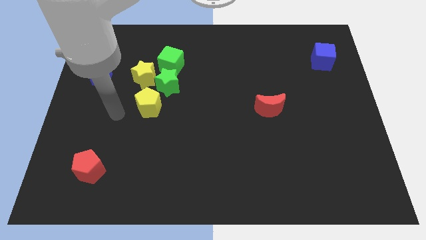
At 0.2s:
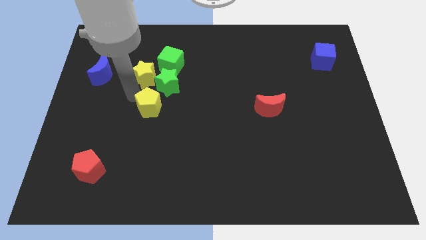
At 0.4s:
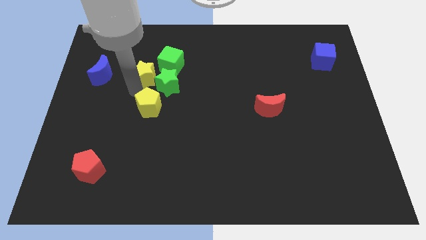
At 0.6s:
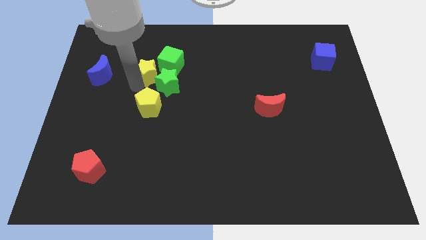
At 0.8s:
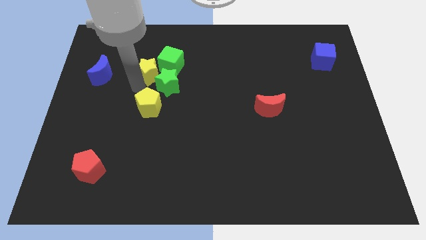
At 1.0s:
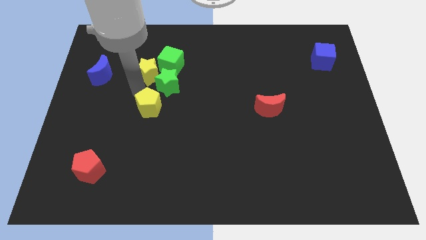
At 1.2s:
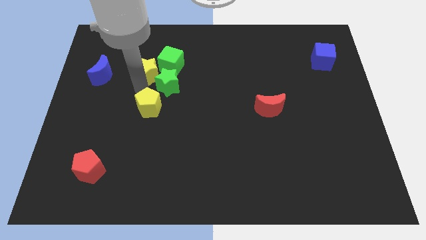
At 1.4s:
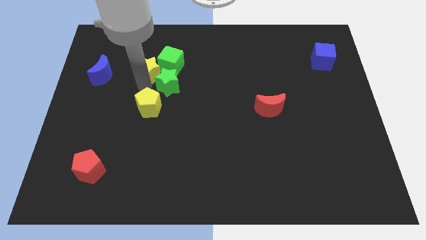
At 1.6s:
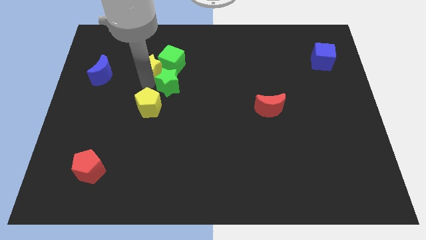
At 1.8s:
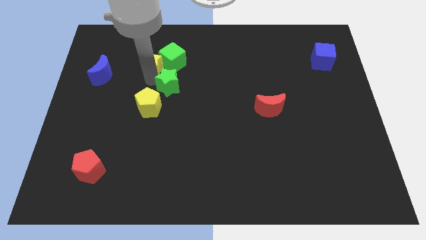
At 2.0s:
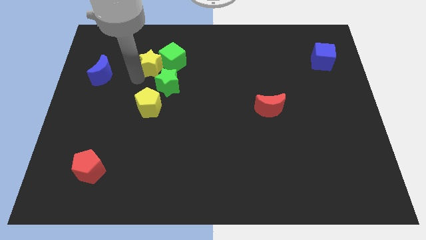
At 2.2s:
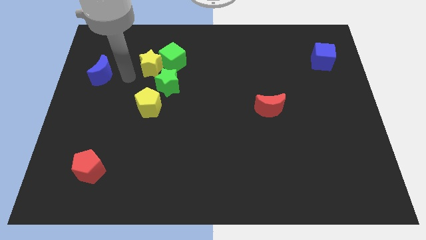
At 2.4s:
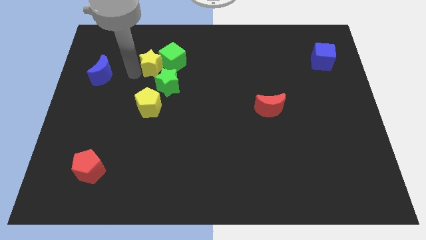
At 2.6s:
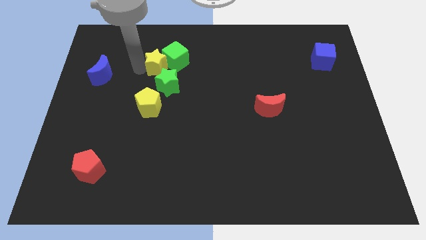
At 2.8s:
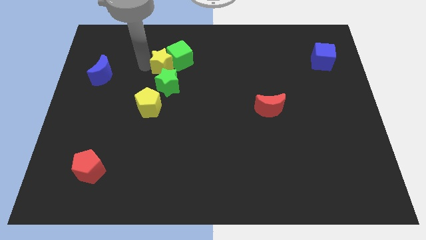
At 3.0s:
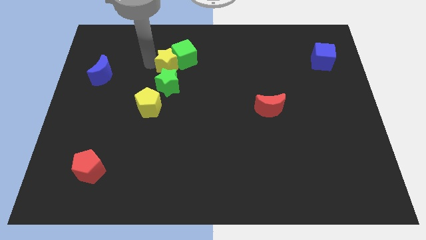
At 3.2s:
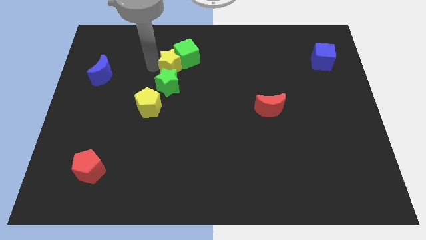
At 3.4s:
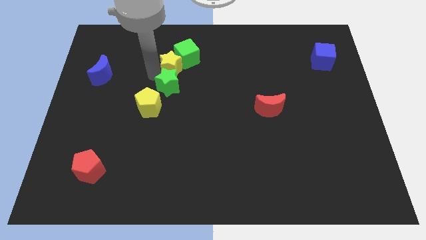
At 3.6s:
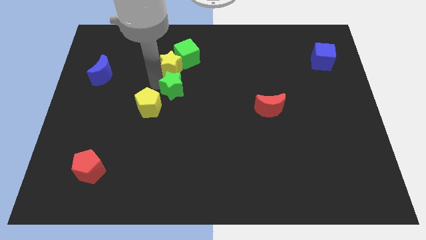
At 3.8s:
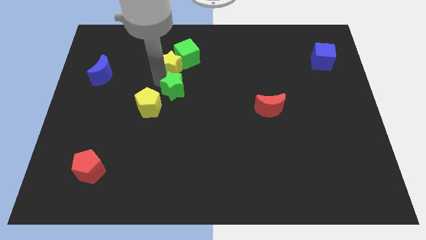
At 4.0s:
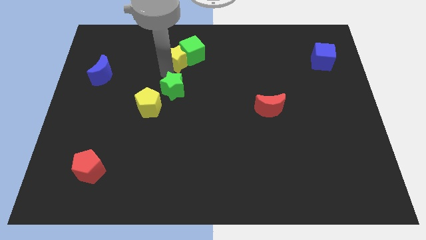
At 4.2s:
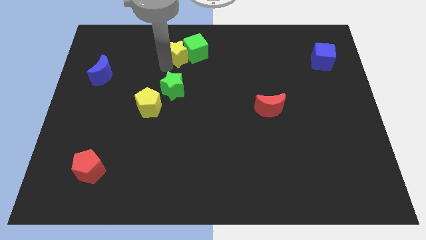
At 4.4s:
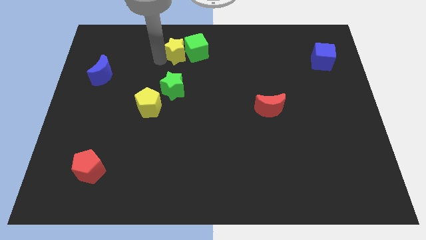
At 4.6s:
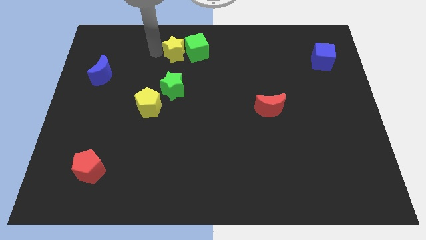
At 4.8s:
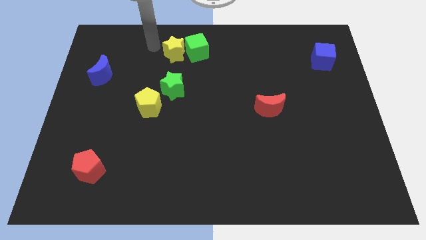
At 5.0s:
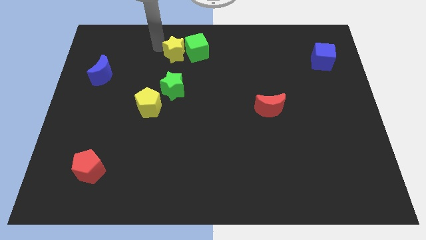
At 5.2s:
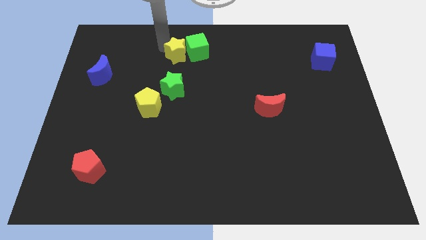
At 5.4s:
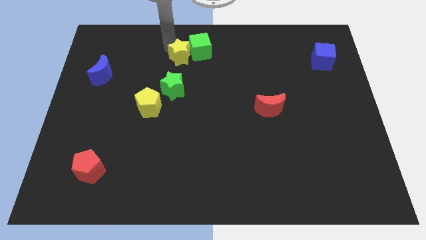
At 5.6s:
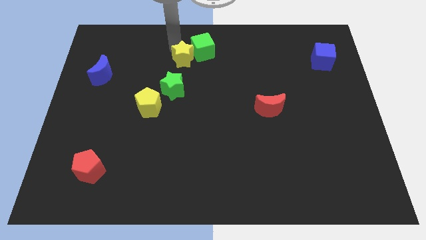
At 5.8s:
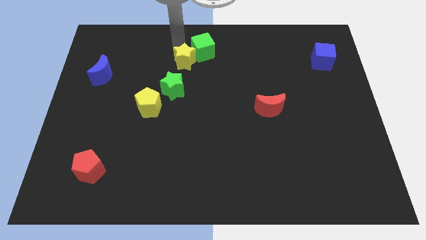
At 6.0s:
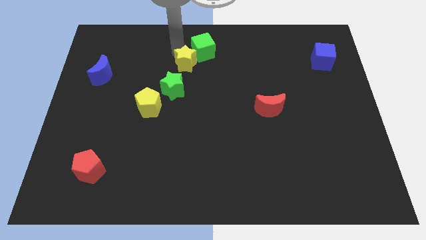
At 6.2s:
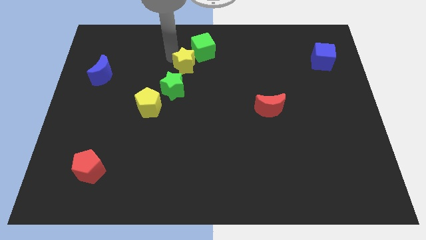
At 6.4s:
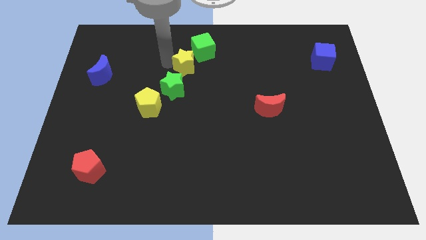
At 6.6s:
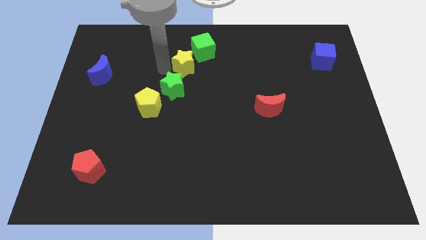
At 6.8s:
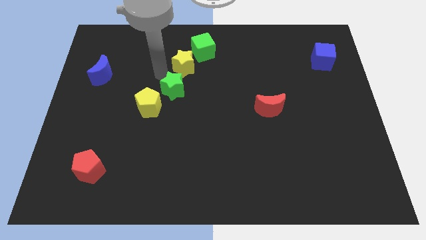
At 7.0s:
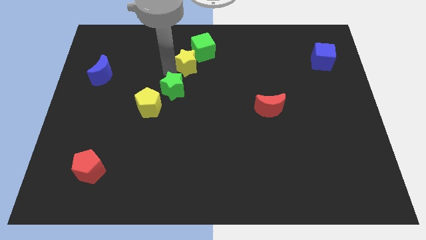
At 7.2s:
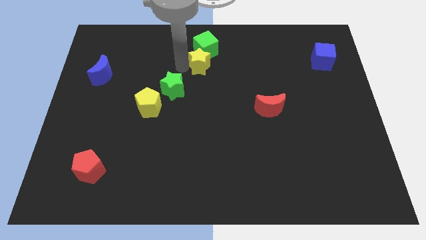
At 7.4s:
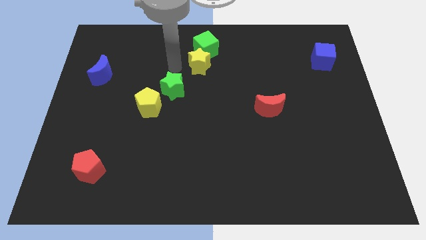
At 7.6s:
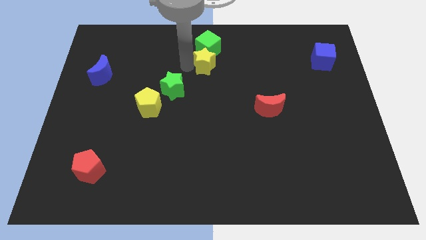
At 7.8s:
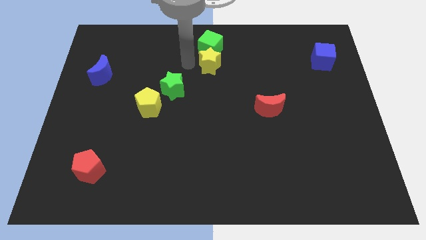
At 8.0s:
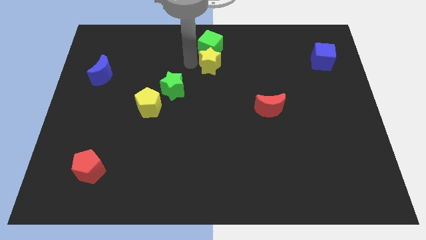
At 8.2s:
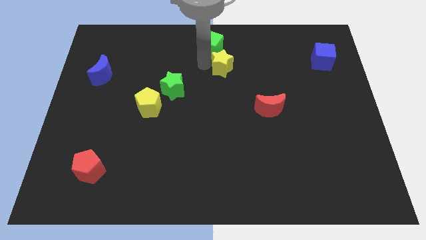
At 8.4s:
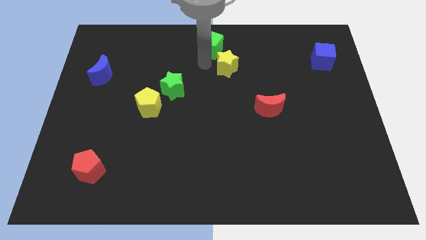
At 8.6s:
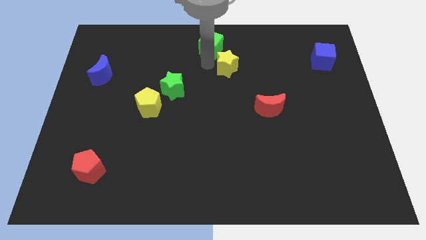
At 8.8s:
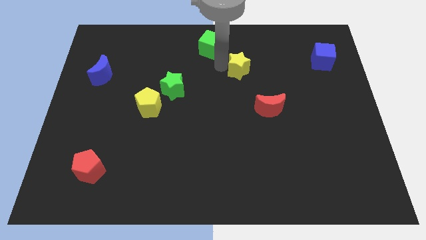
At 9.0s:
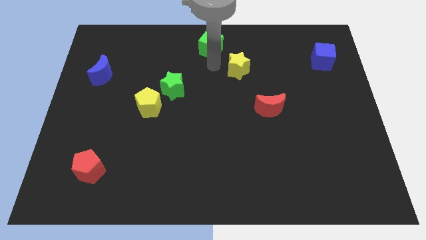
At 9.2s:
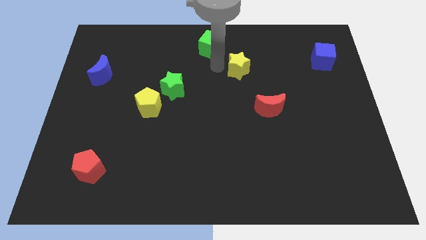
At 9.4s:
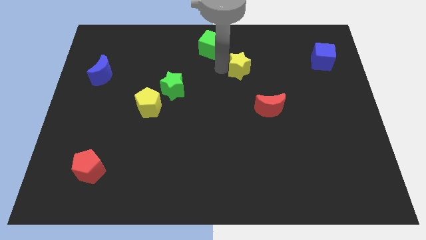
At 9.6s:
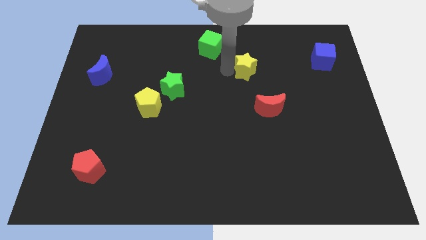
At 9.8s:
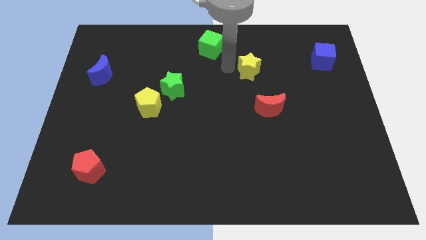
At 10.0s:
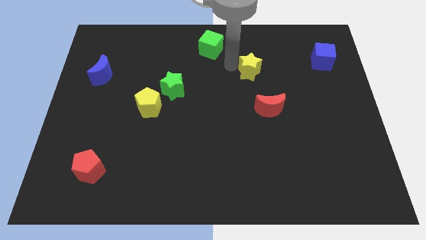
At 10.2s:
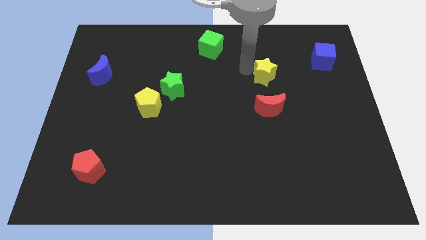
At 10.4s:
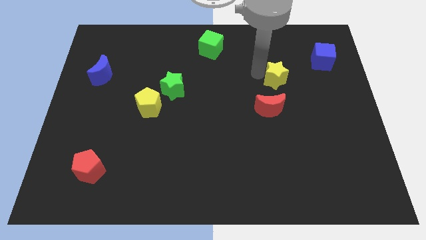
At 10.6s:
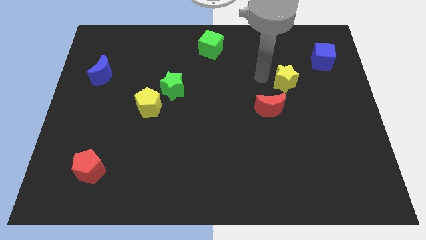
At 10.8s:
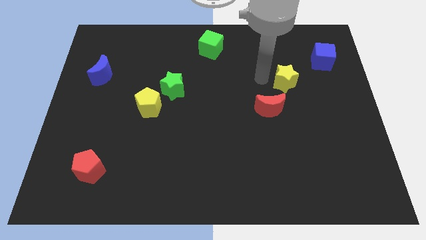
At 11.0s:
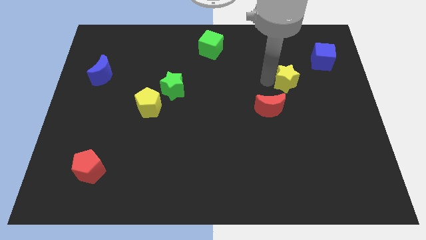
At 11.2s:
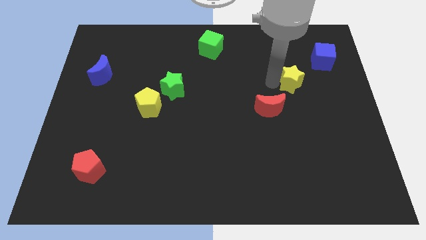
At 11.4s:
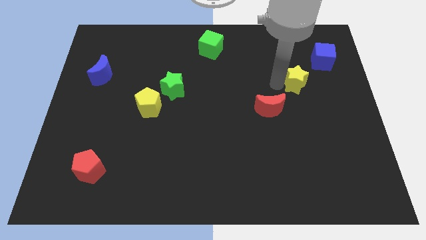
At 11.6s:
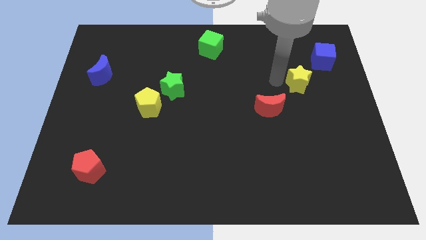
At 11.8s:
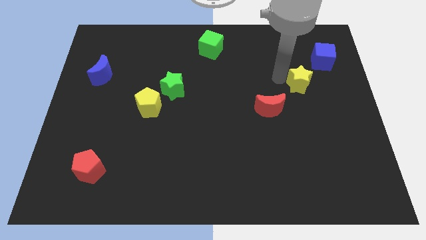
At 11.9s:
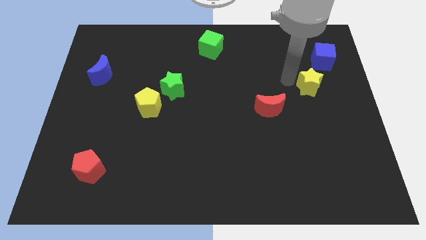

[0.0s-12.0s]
move the yellow star to the bottom side of the blue cube
